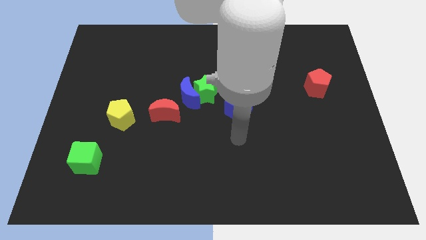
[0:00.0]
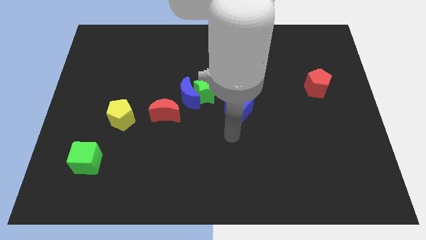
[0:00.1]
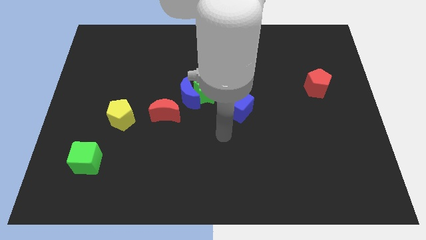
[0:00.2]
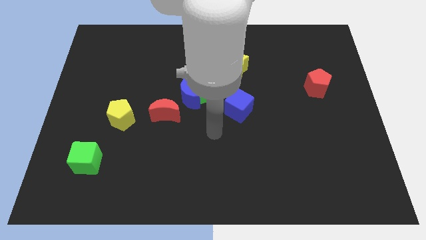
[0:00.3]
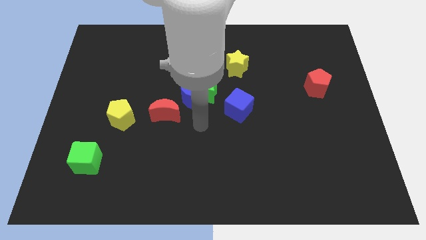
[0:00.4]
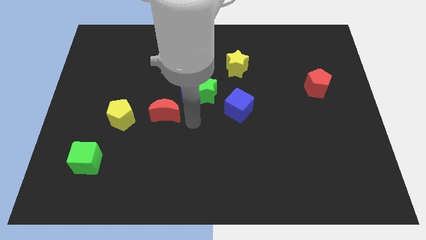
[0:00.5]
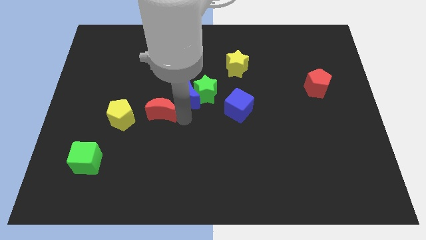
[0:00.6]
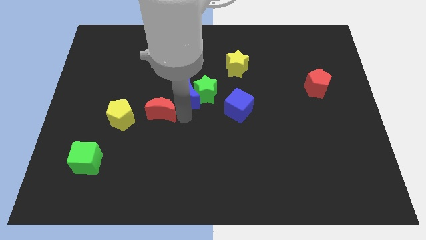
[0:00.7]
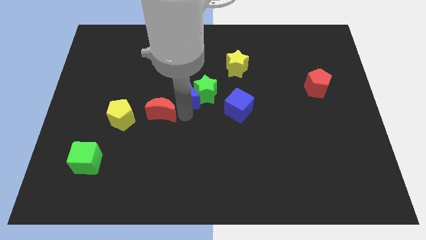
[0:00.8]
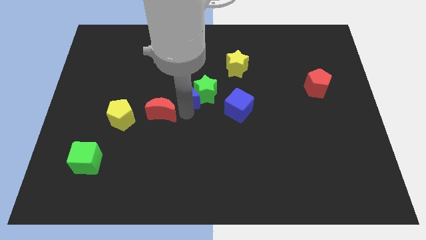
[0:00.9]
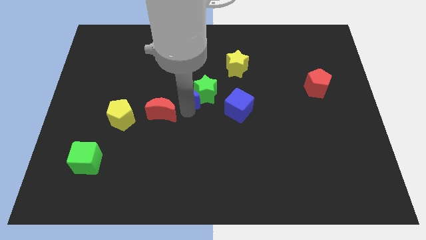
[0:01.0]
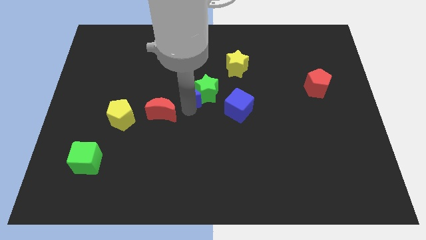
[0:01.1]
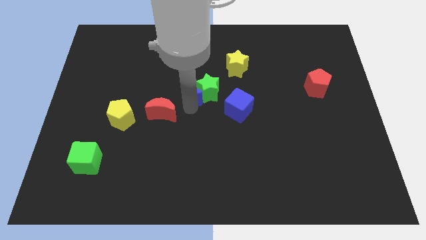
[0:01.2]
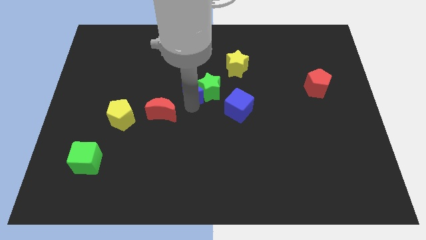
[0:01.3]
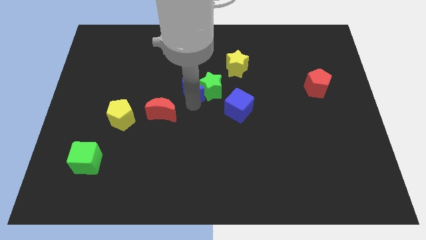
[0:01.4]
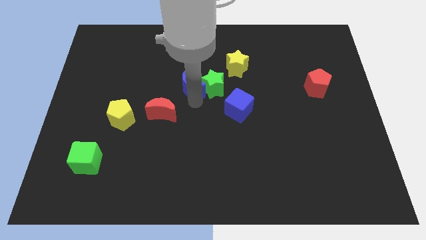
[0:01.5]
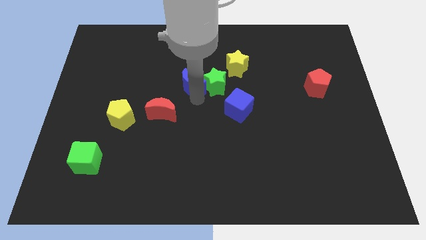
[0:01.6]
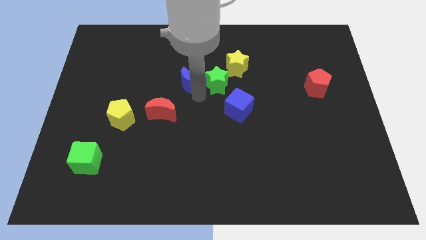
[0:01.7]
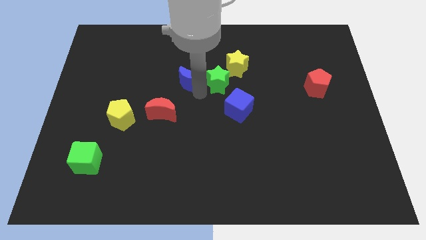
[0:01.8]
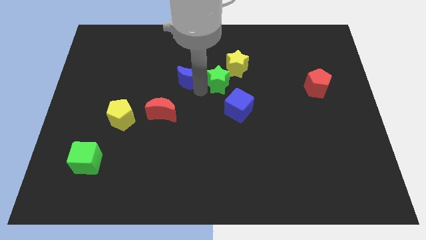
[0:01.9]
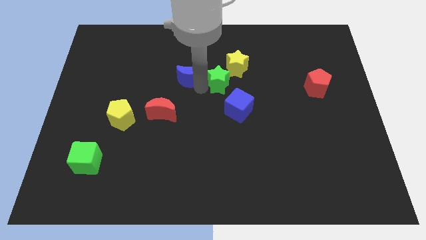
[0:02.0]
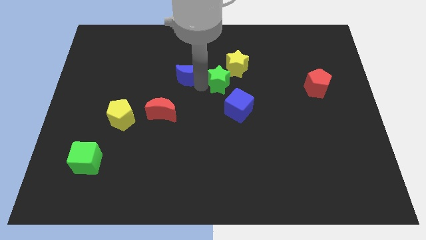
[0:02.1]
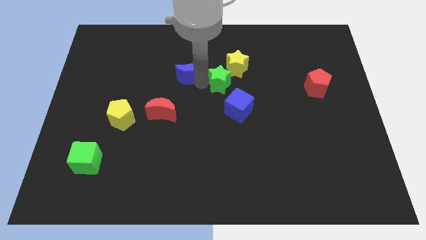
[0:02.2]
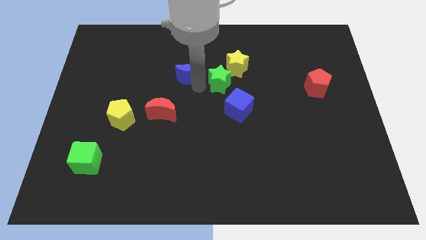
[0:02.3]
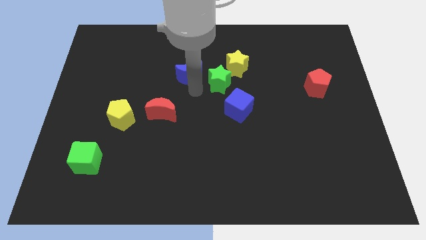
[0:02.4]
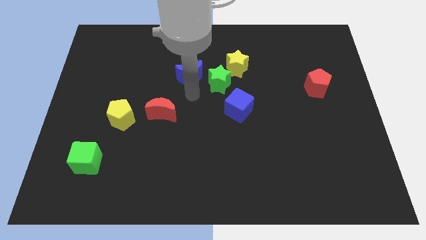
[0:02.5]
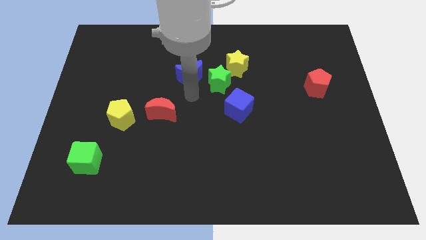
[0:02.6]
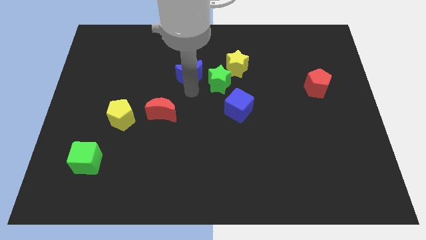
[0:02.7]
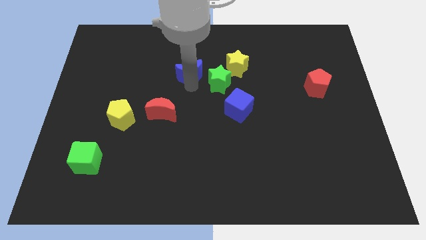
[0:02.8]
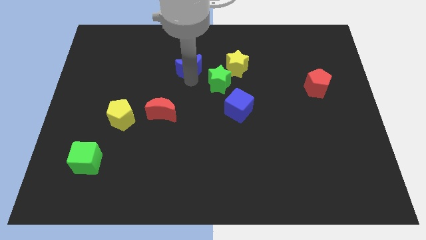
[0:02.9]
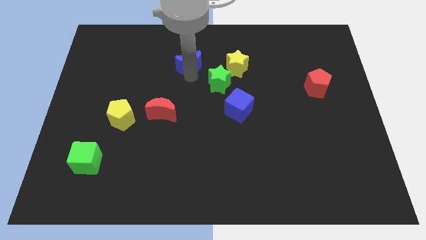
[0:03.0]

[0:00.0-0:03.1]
separate the blue moon from the green star and red moon

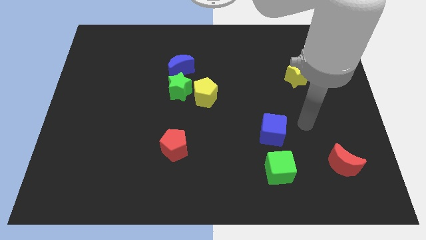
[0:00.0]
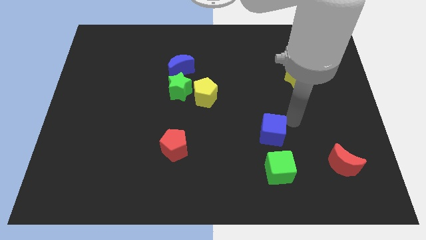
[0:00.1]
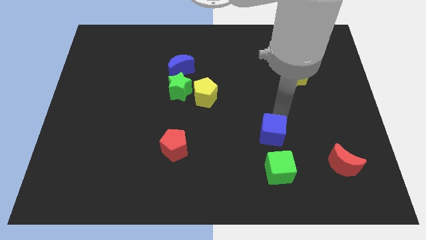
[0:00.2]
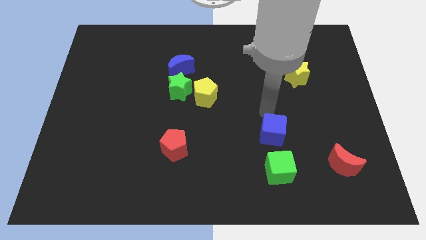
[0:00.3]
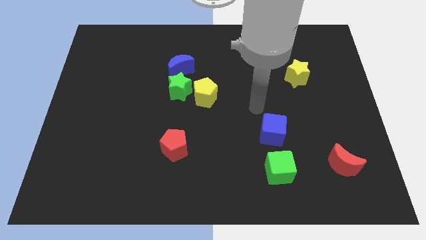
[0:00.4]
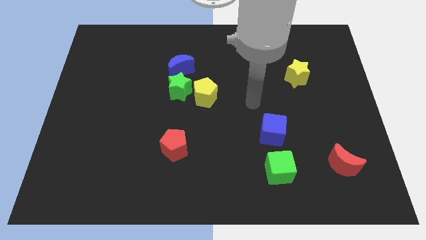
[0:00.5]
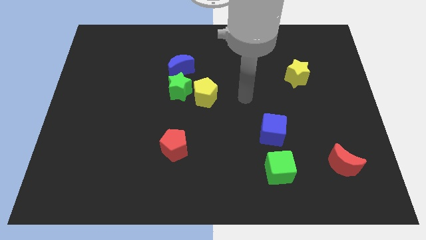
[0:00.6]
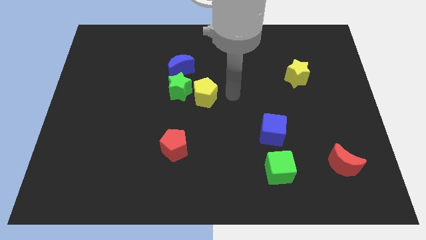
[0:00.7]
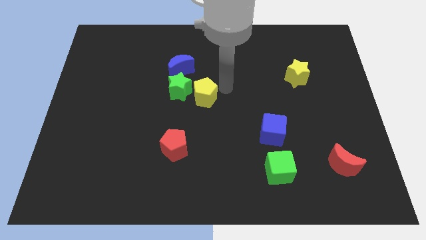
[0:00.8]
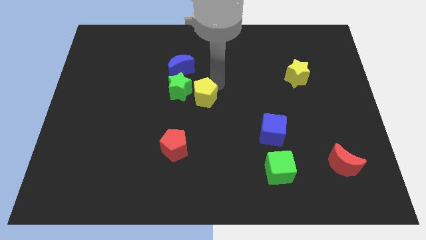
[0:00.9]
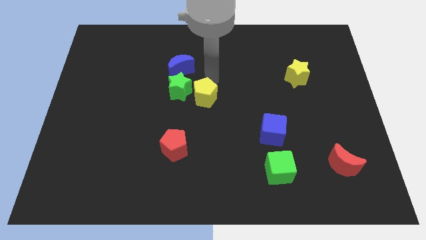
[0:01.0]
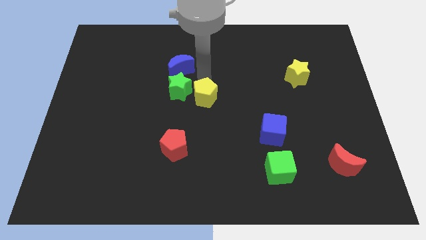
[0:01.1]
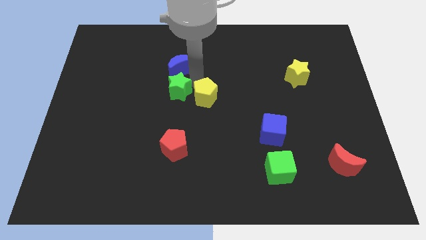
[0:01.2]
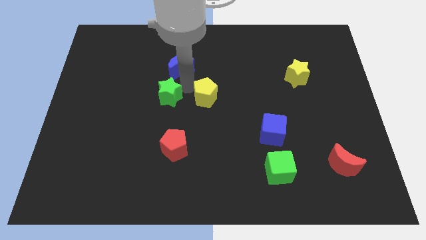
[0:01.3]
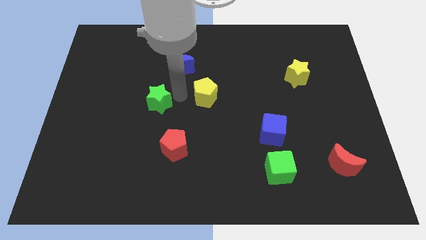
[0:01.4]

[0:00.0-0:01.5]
move the yellow pentagon away from the green star

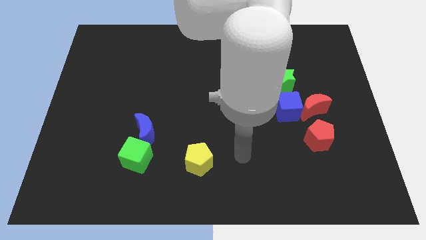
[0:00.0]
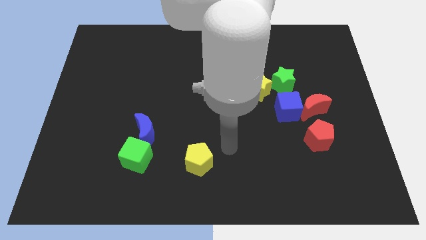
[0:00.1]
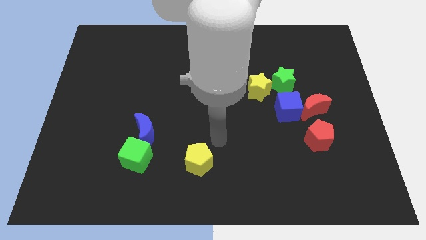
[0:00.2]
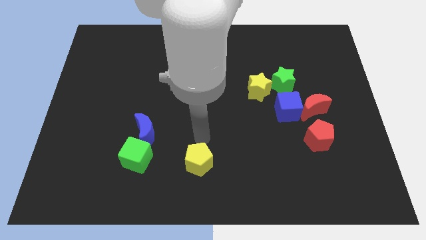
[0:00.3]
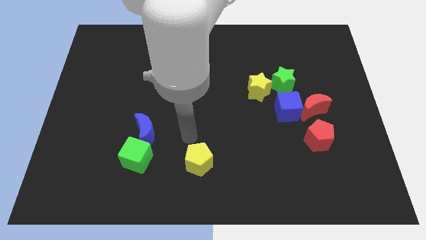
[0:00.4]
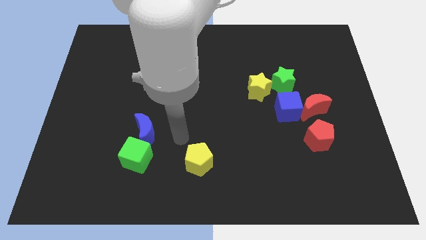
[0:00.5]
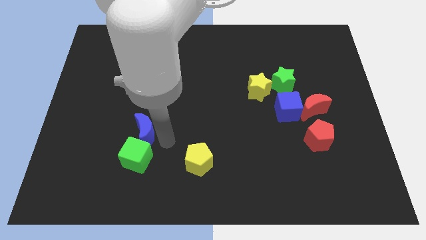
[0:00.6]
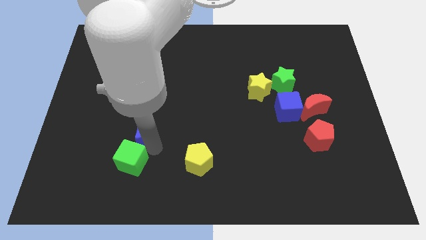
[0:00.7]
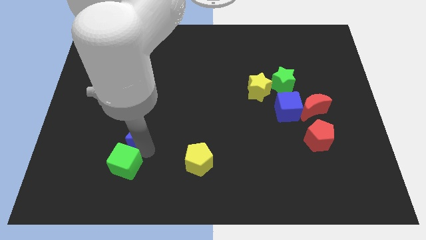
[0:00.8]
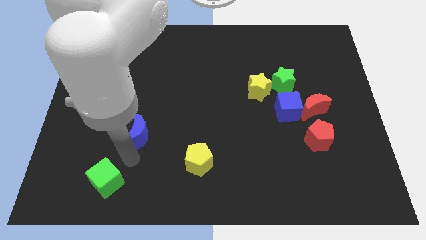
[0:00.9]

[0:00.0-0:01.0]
move the blue moon away from the green cube

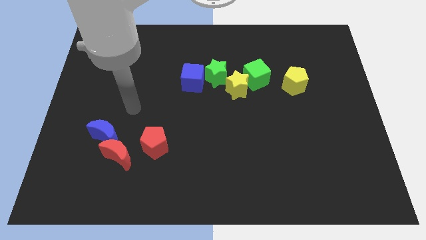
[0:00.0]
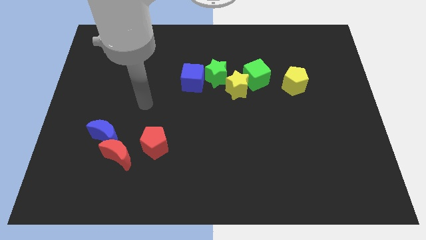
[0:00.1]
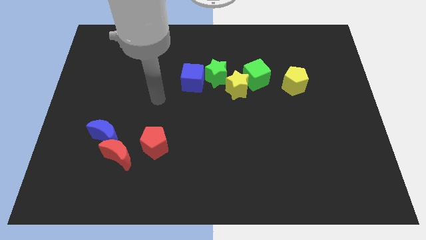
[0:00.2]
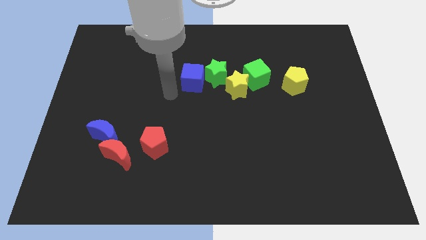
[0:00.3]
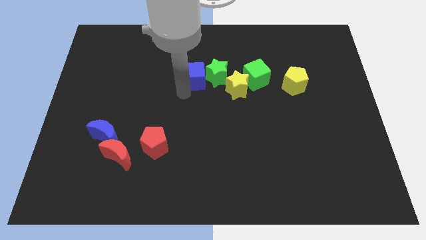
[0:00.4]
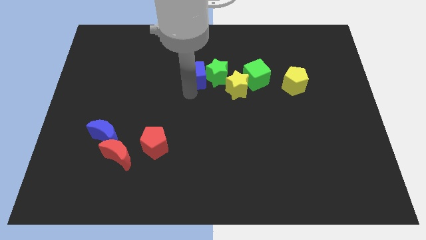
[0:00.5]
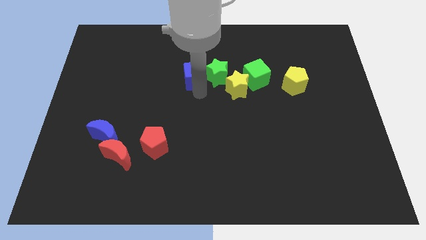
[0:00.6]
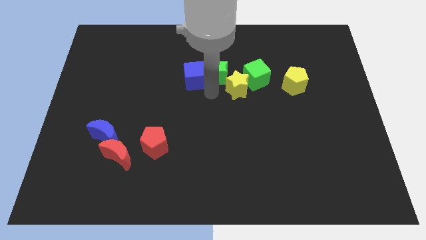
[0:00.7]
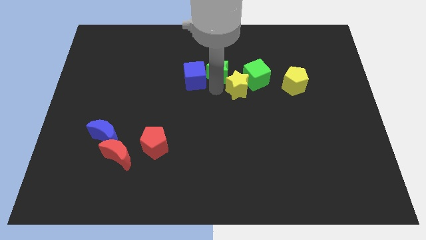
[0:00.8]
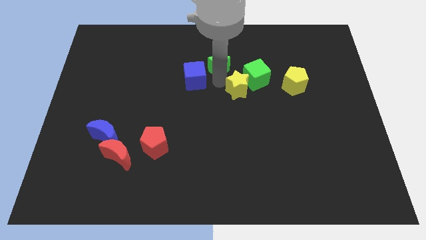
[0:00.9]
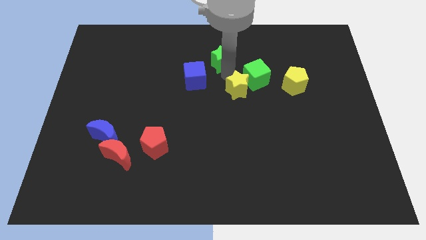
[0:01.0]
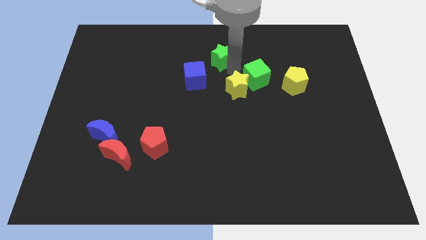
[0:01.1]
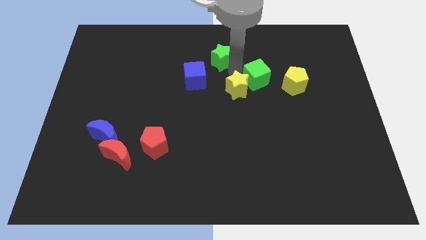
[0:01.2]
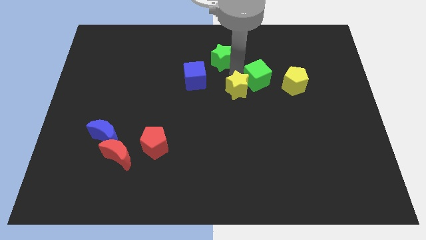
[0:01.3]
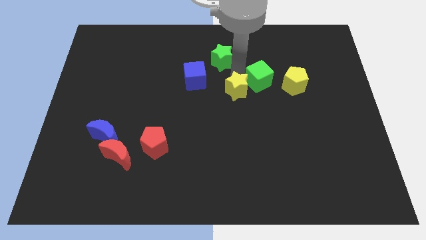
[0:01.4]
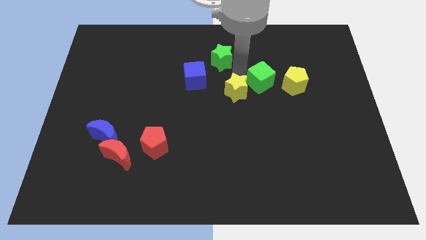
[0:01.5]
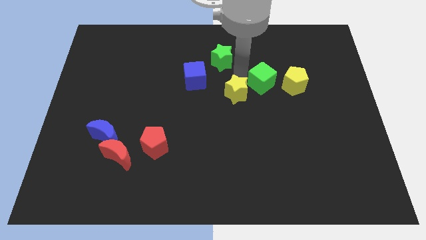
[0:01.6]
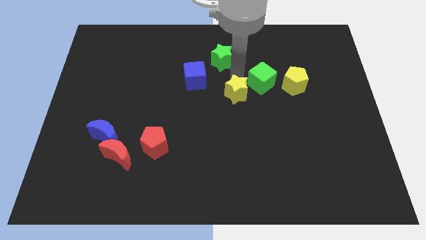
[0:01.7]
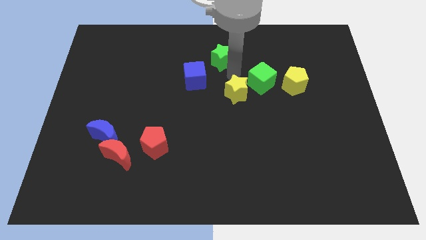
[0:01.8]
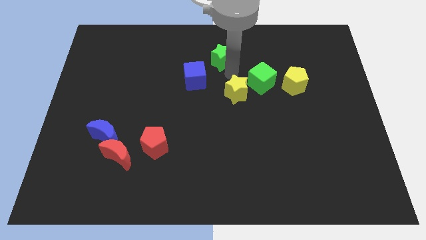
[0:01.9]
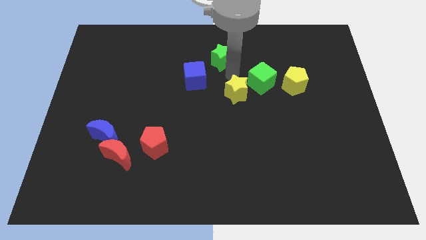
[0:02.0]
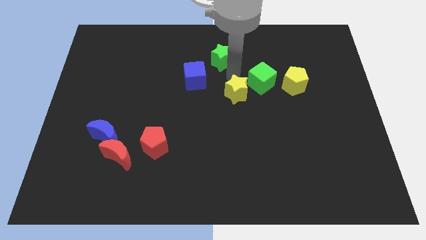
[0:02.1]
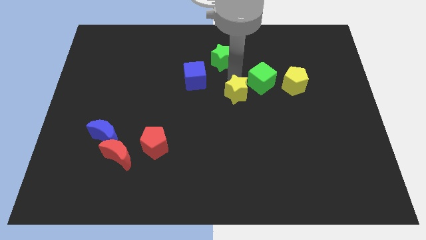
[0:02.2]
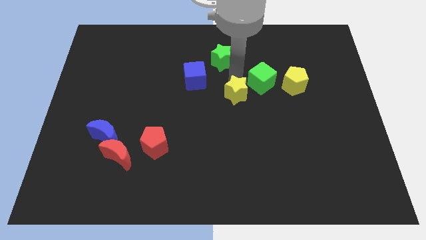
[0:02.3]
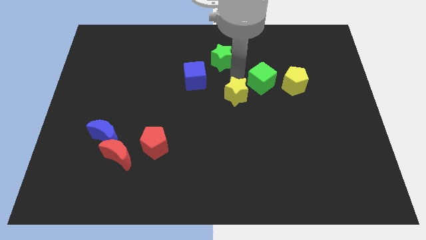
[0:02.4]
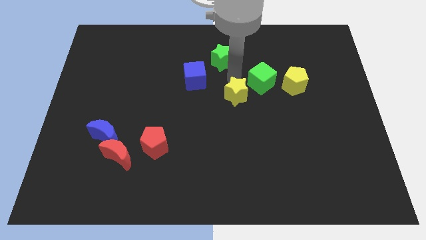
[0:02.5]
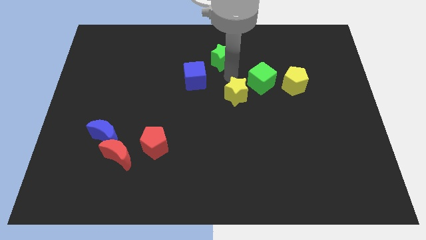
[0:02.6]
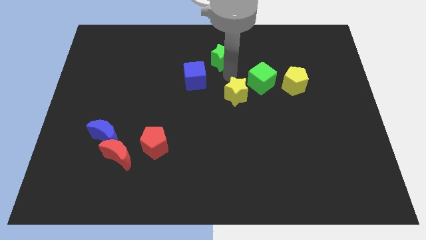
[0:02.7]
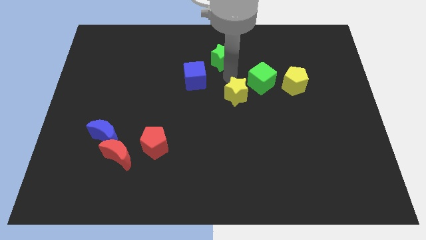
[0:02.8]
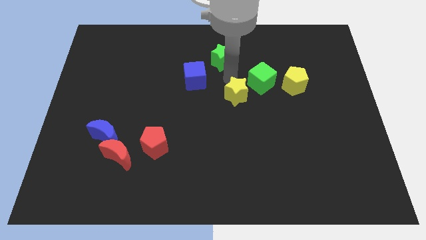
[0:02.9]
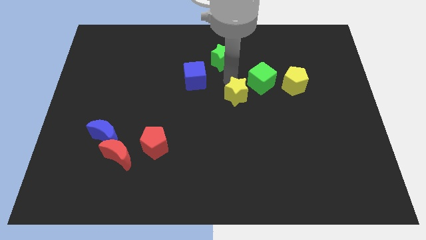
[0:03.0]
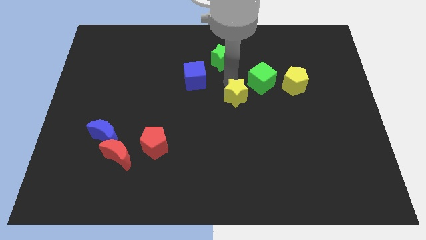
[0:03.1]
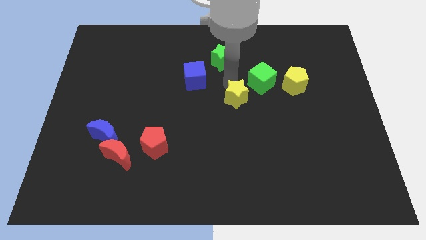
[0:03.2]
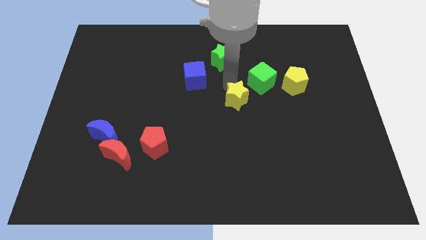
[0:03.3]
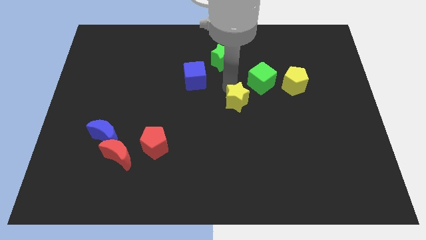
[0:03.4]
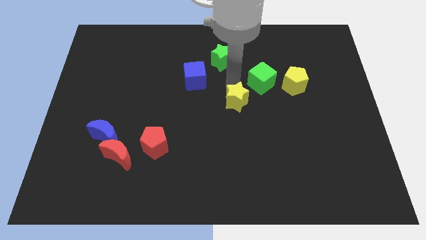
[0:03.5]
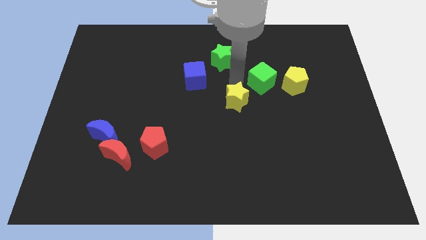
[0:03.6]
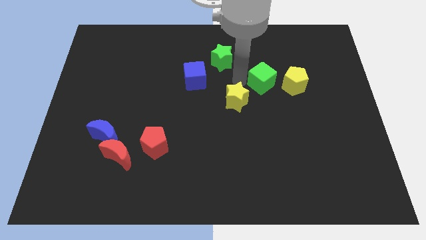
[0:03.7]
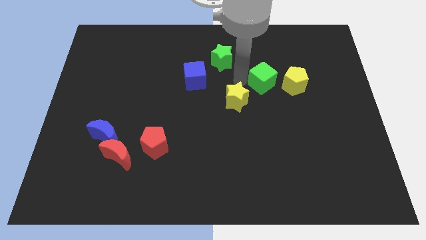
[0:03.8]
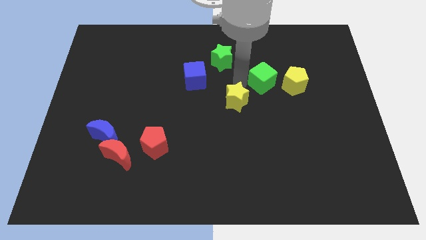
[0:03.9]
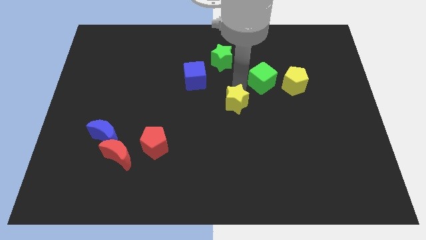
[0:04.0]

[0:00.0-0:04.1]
move the yellow star away from the green cube and green star
